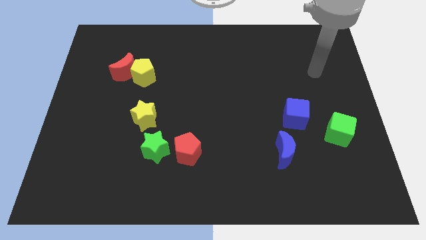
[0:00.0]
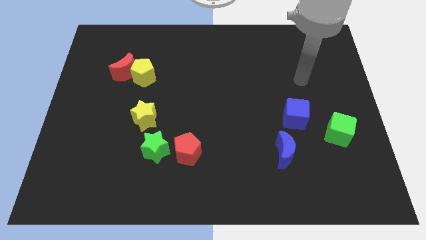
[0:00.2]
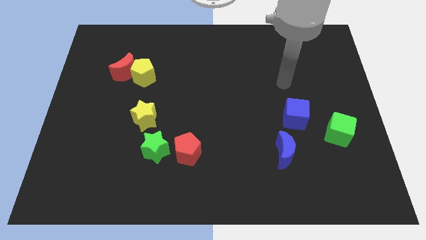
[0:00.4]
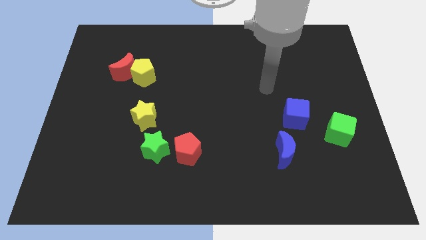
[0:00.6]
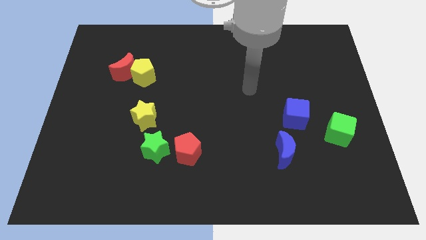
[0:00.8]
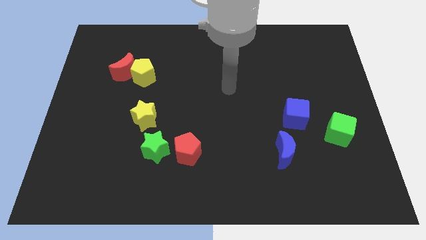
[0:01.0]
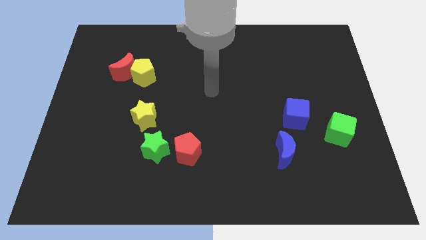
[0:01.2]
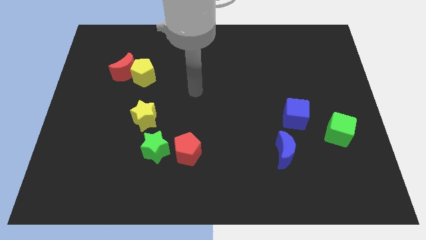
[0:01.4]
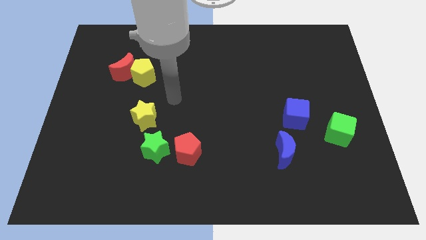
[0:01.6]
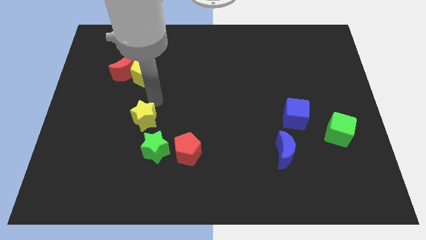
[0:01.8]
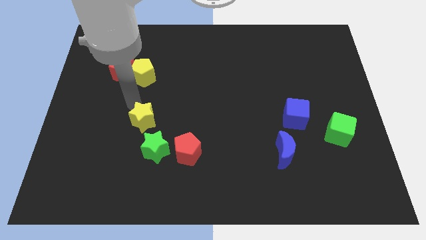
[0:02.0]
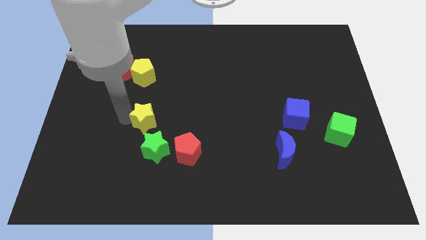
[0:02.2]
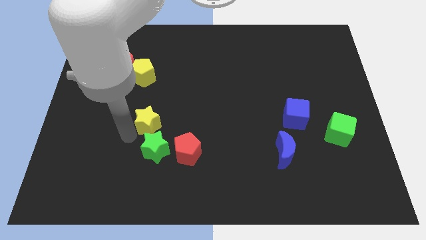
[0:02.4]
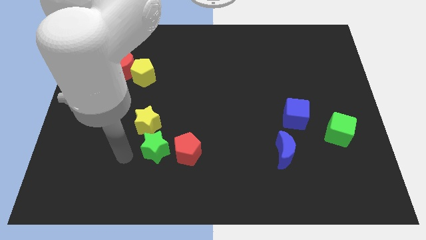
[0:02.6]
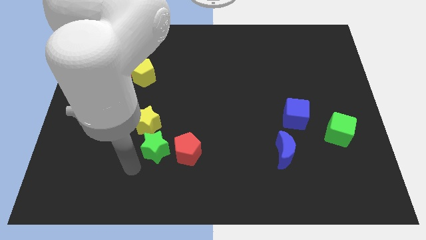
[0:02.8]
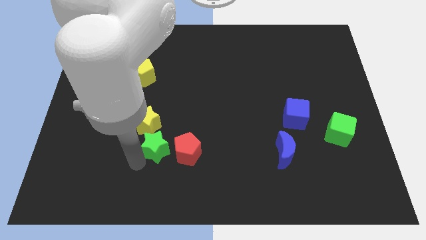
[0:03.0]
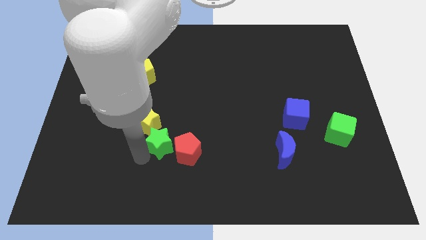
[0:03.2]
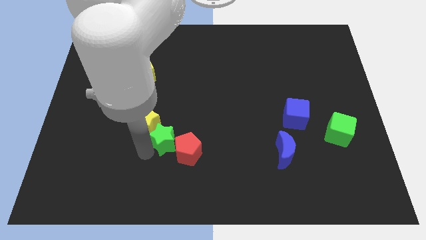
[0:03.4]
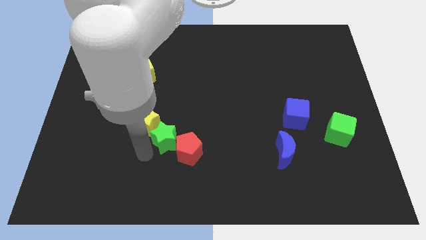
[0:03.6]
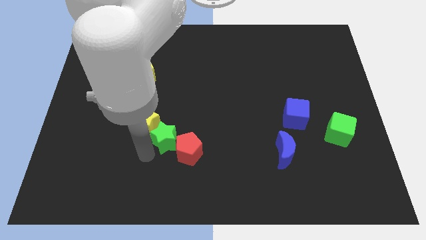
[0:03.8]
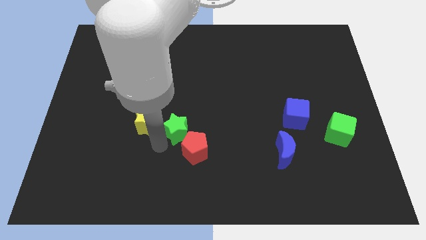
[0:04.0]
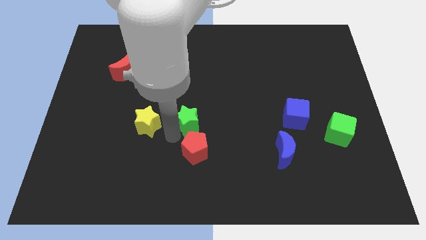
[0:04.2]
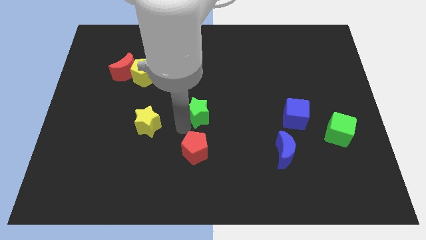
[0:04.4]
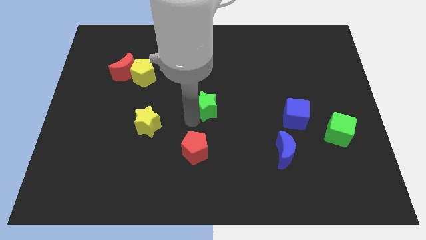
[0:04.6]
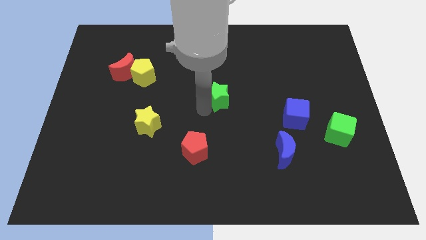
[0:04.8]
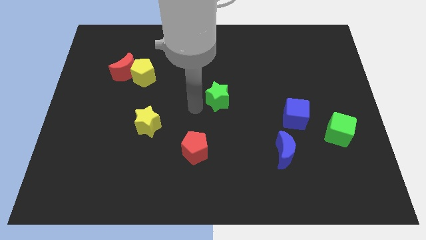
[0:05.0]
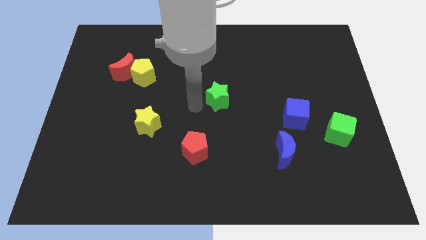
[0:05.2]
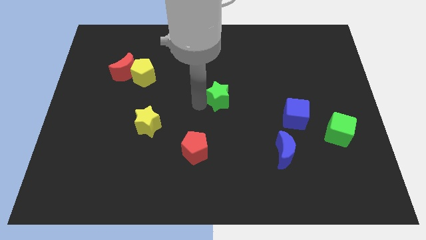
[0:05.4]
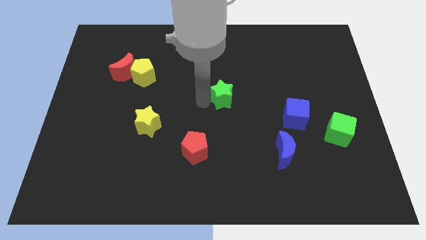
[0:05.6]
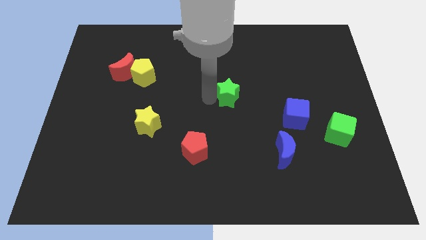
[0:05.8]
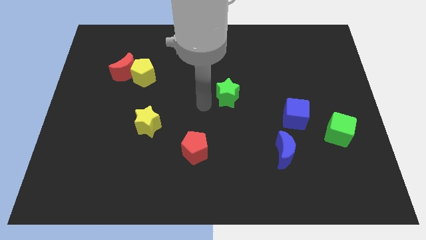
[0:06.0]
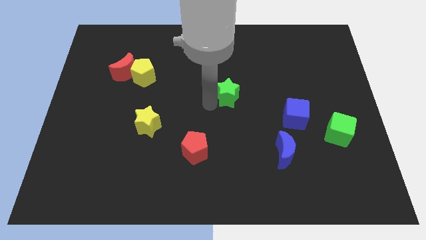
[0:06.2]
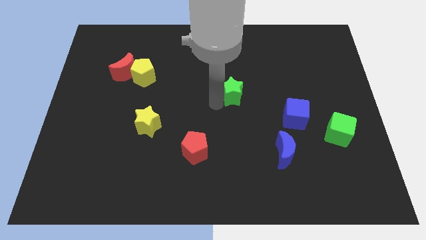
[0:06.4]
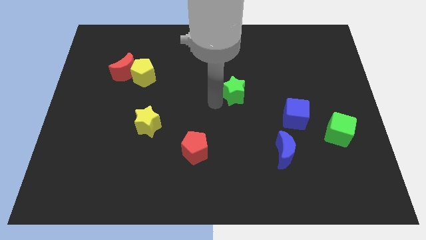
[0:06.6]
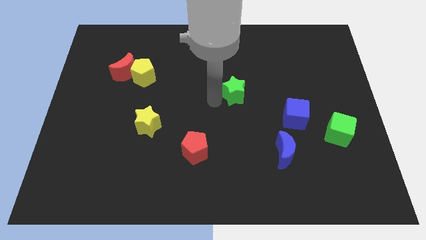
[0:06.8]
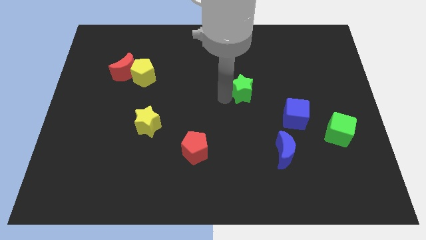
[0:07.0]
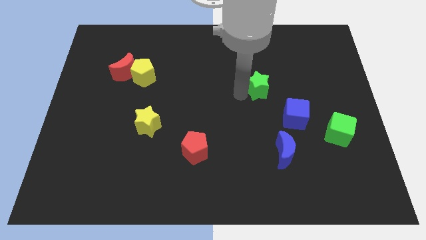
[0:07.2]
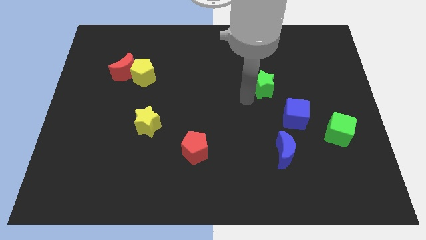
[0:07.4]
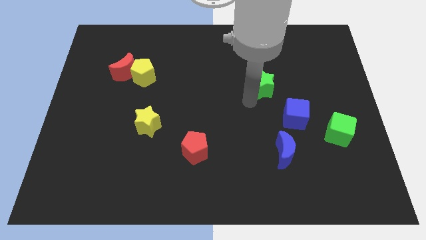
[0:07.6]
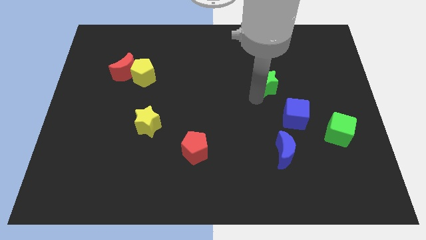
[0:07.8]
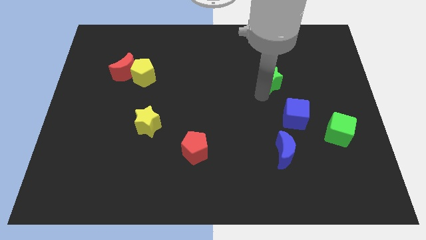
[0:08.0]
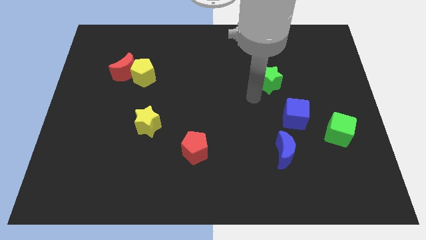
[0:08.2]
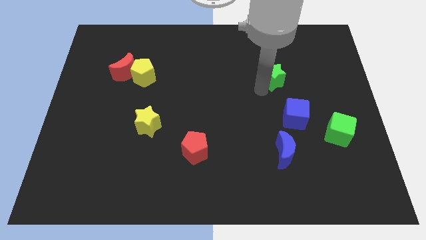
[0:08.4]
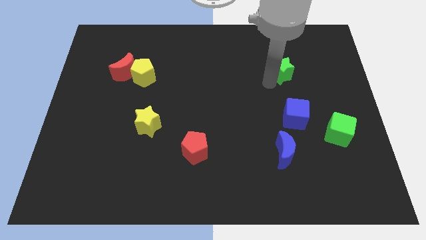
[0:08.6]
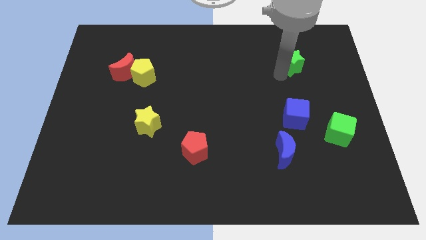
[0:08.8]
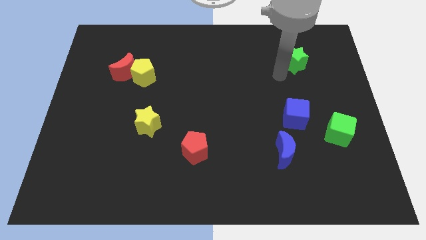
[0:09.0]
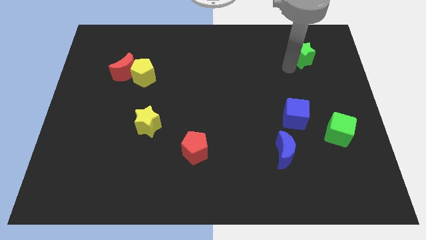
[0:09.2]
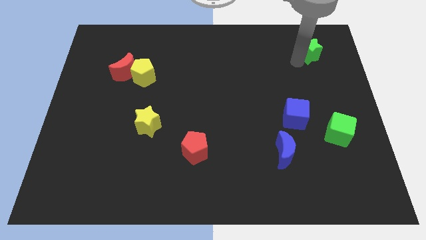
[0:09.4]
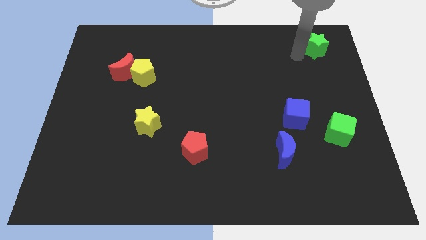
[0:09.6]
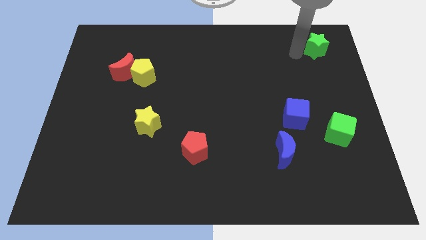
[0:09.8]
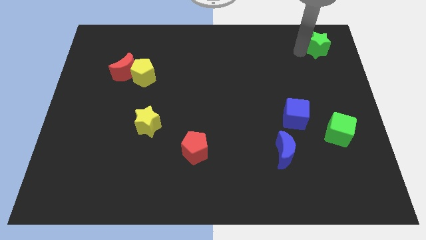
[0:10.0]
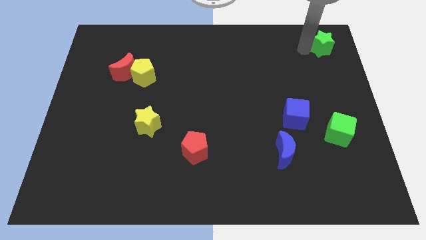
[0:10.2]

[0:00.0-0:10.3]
slide the green star to the upper right corner

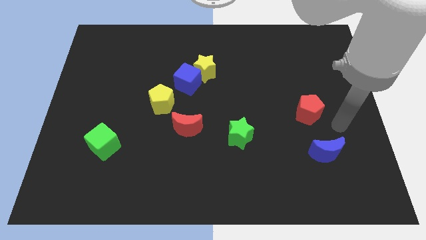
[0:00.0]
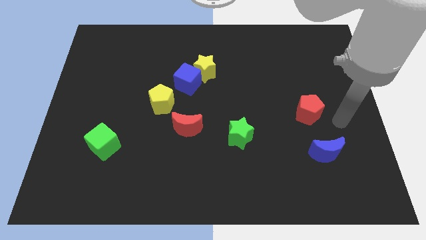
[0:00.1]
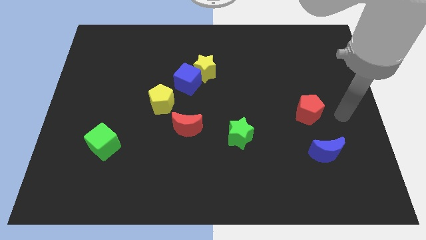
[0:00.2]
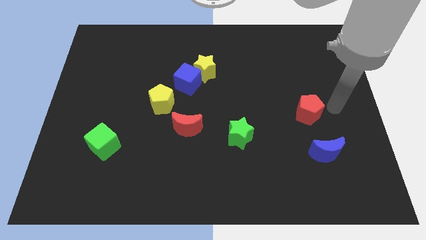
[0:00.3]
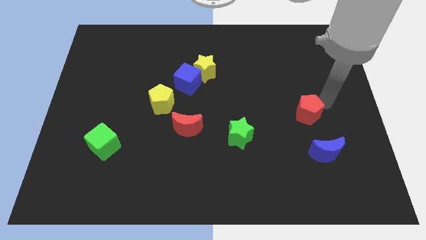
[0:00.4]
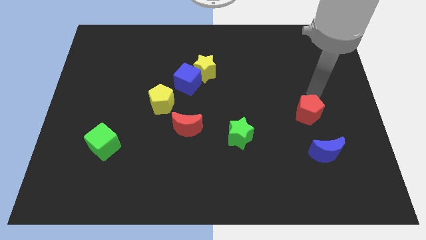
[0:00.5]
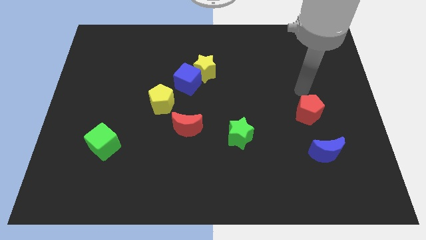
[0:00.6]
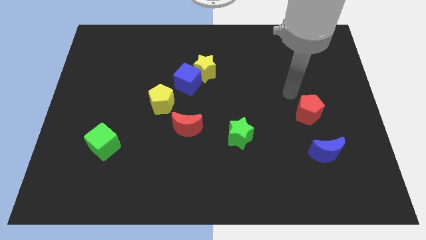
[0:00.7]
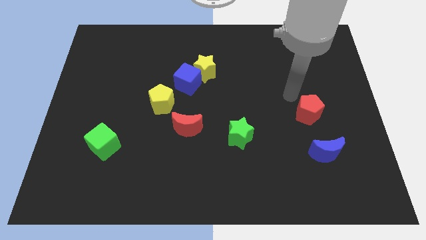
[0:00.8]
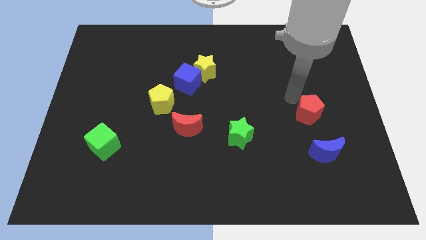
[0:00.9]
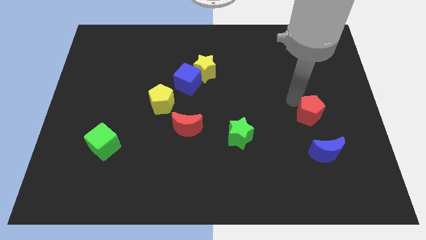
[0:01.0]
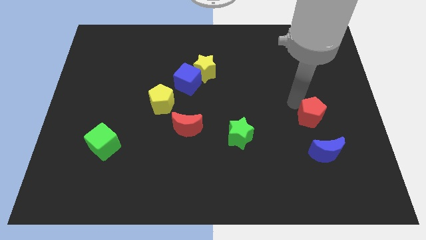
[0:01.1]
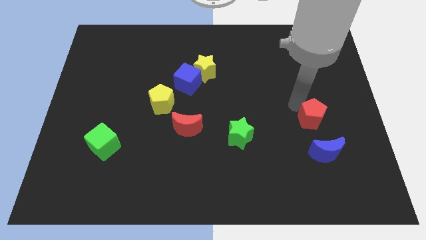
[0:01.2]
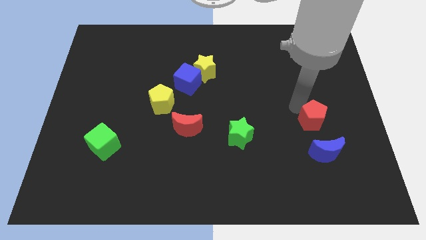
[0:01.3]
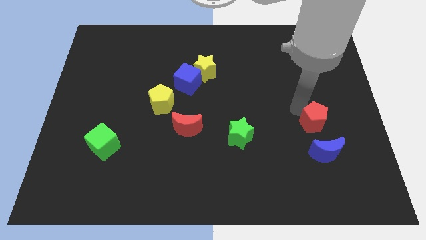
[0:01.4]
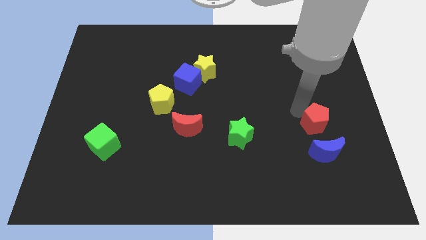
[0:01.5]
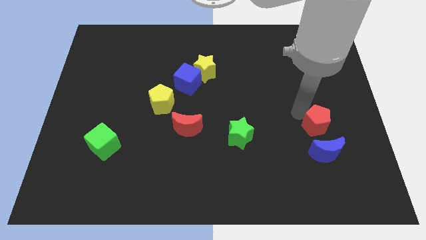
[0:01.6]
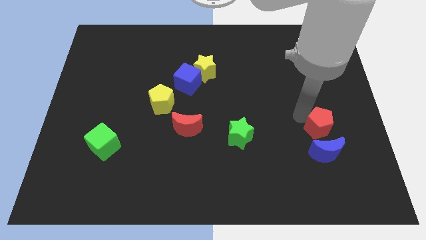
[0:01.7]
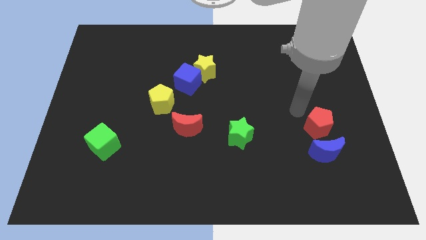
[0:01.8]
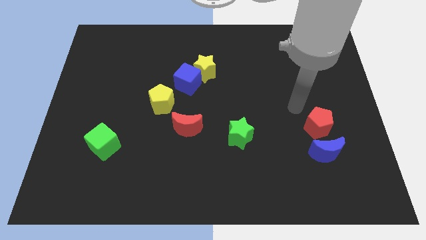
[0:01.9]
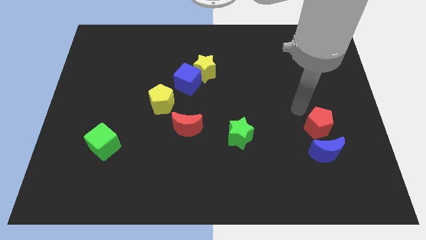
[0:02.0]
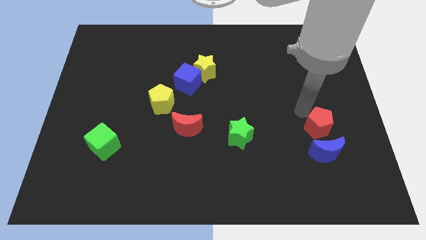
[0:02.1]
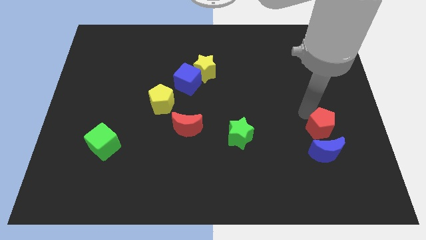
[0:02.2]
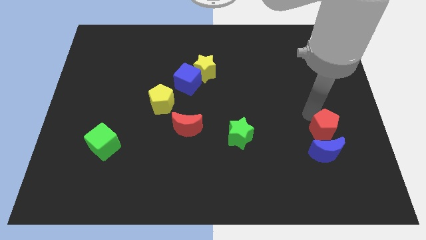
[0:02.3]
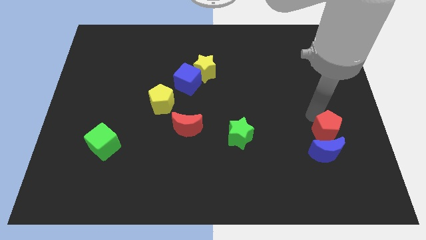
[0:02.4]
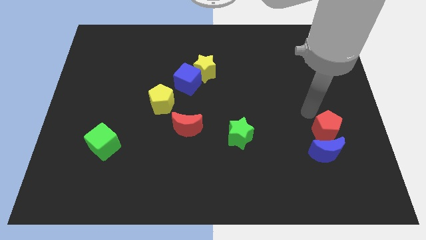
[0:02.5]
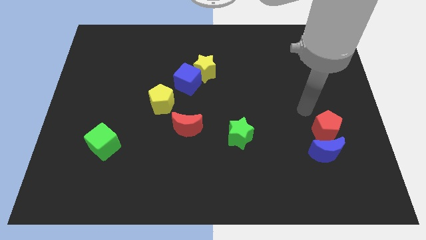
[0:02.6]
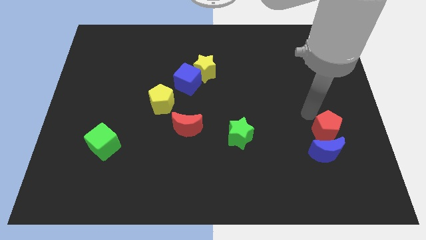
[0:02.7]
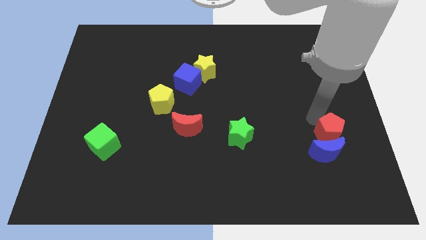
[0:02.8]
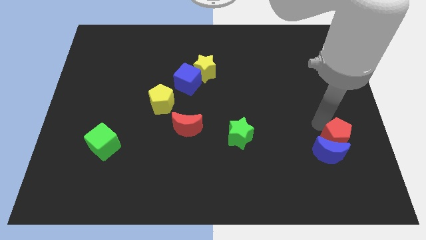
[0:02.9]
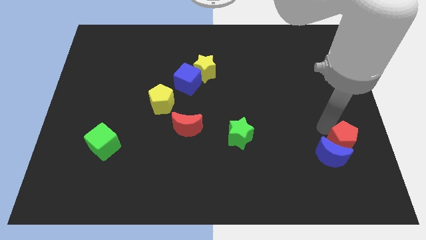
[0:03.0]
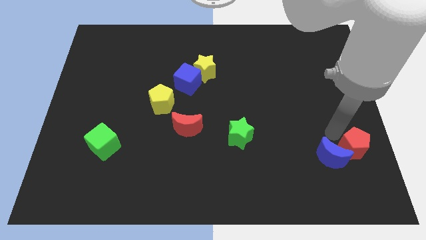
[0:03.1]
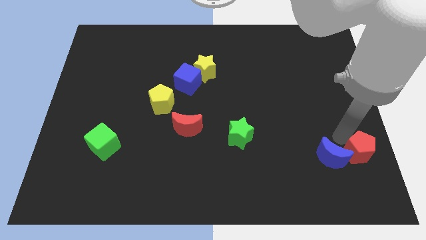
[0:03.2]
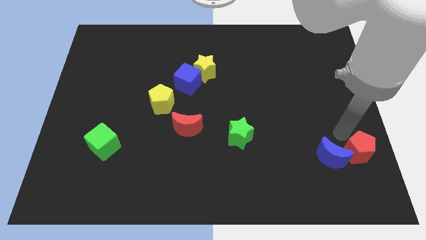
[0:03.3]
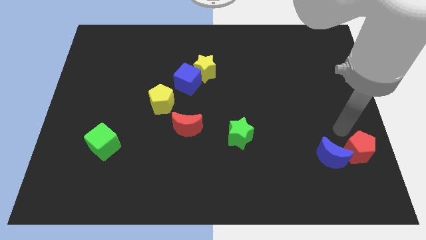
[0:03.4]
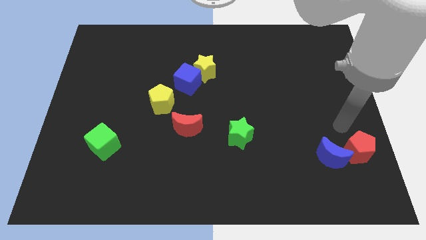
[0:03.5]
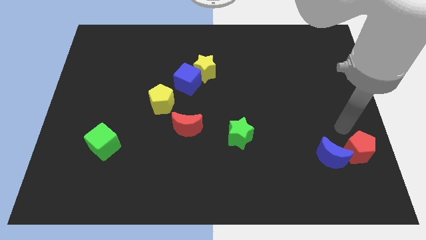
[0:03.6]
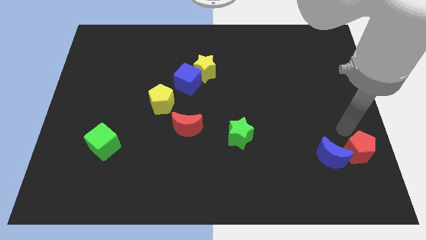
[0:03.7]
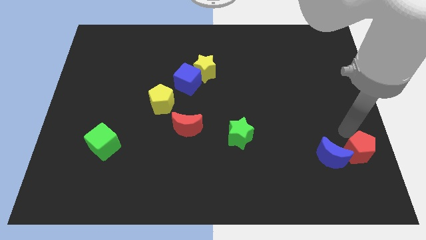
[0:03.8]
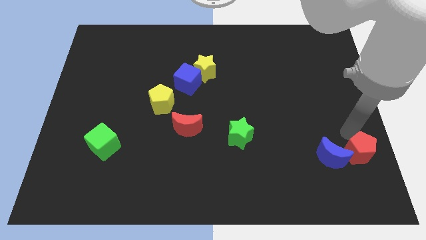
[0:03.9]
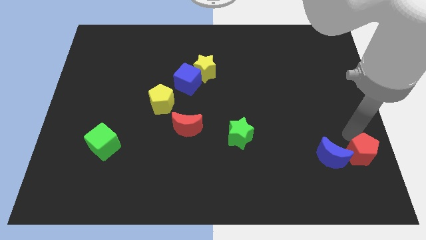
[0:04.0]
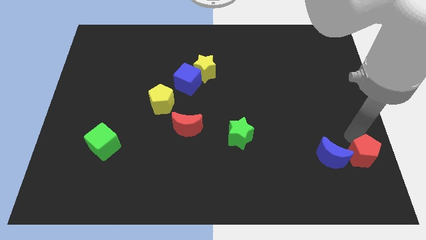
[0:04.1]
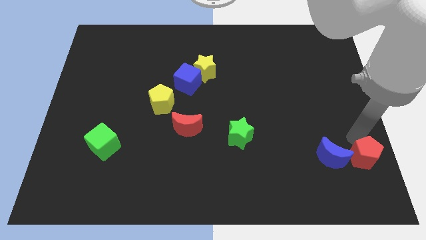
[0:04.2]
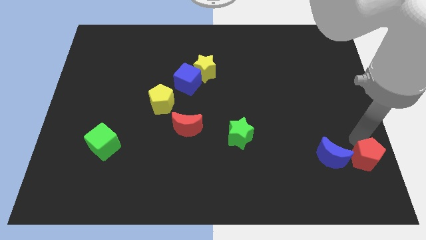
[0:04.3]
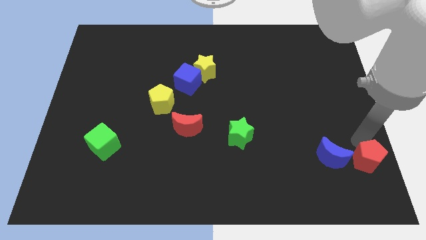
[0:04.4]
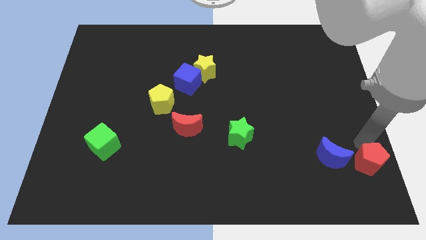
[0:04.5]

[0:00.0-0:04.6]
put the red pentagon to the bottom right of the board
